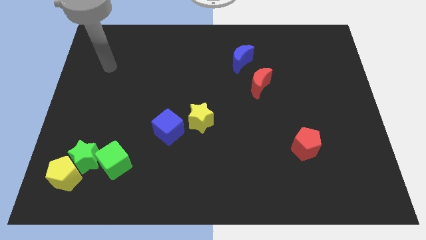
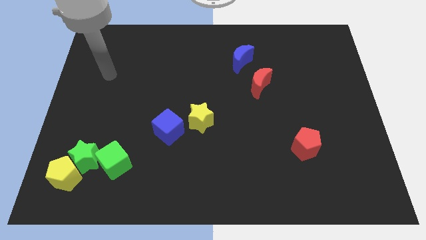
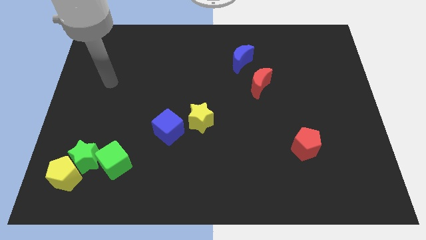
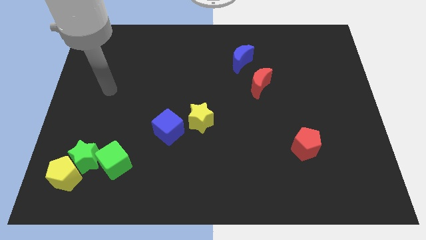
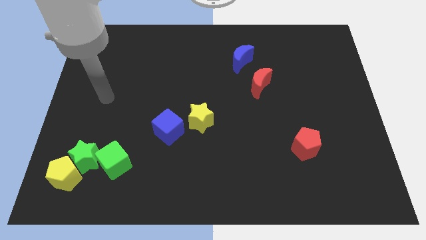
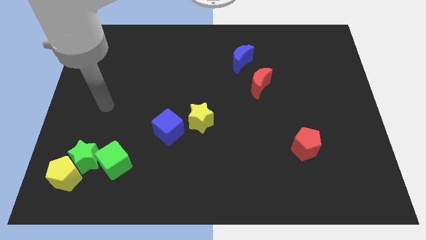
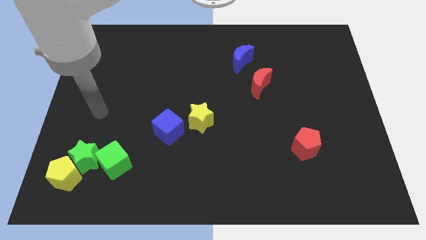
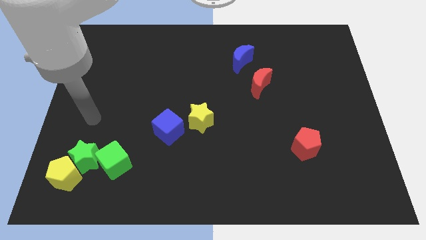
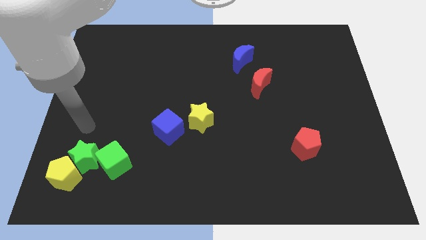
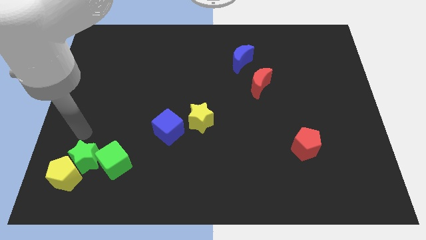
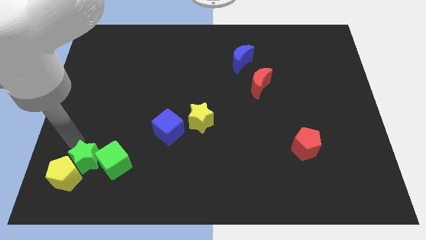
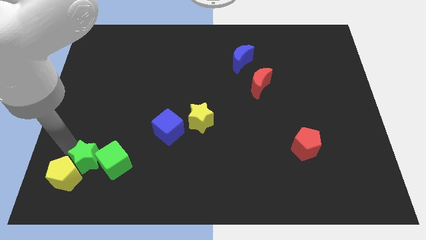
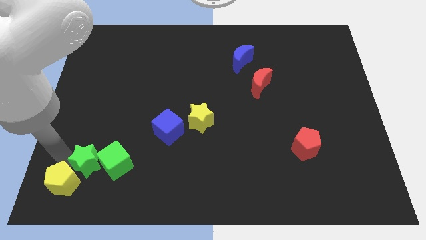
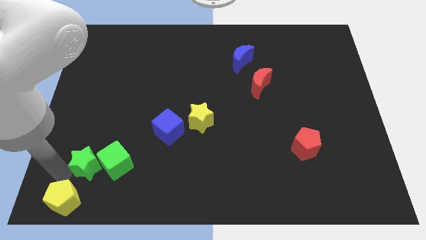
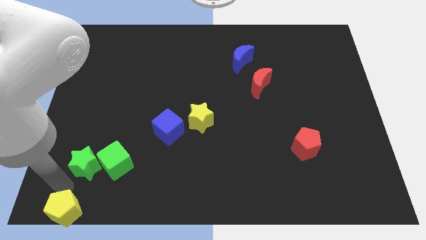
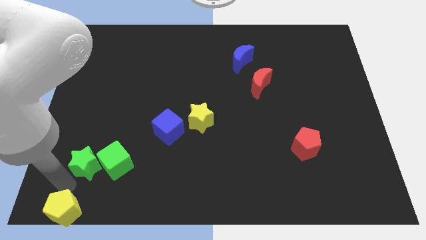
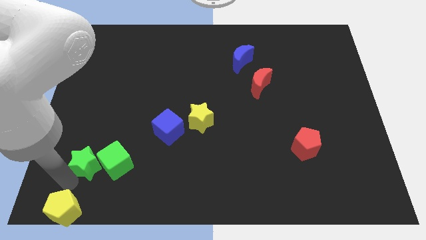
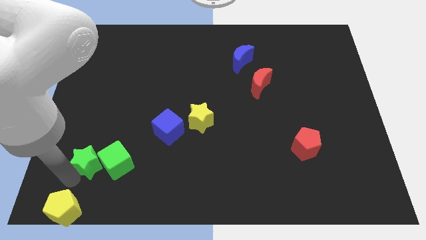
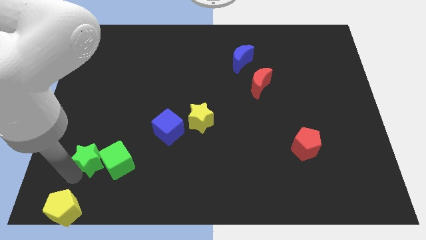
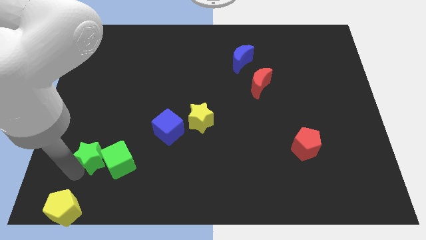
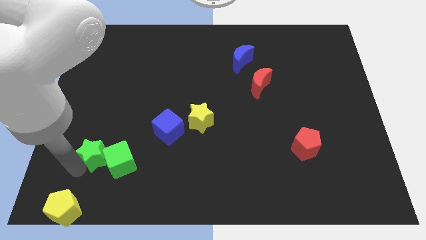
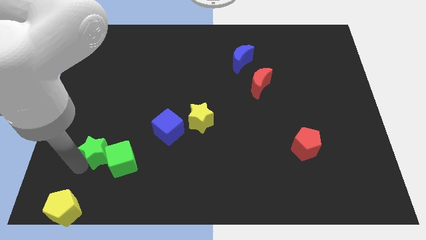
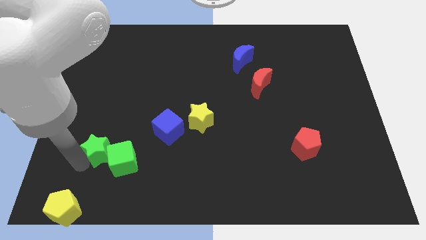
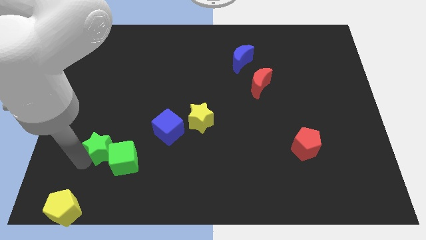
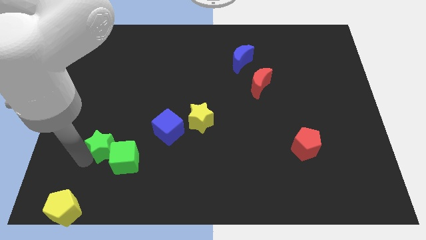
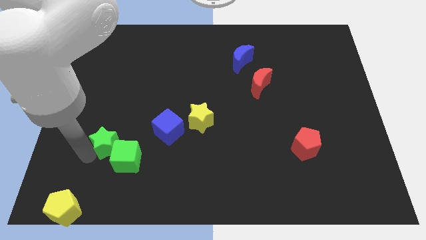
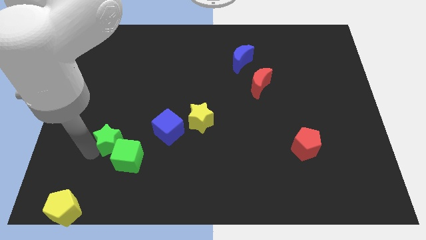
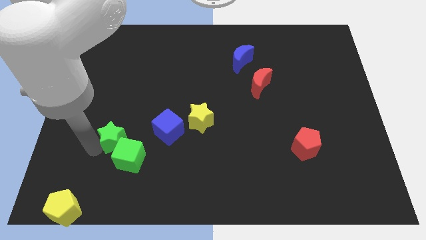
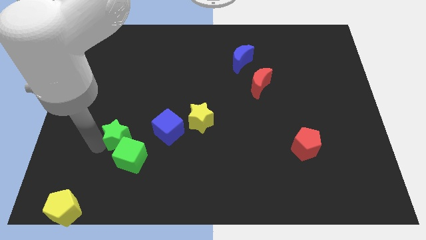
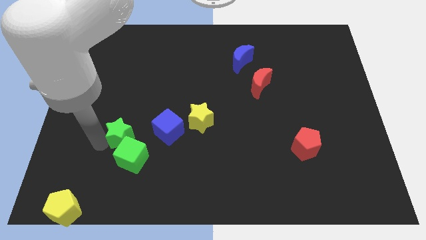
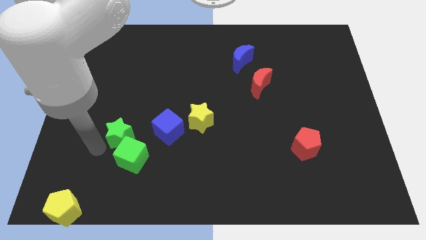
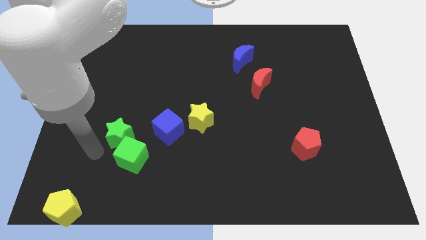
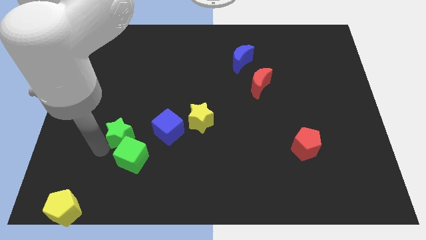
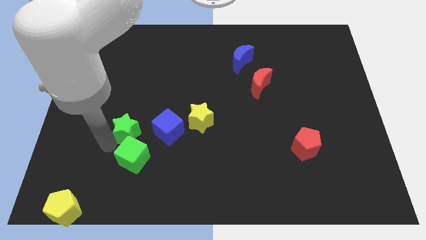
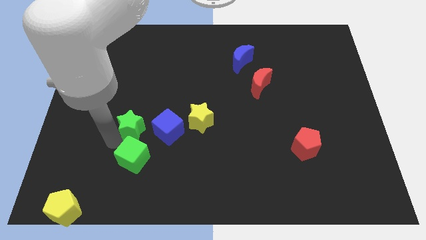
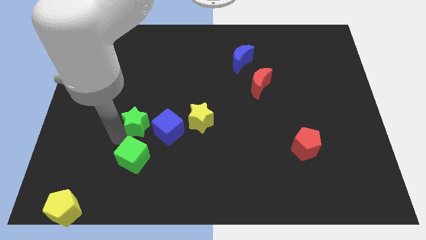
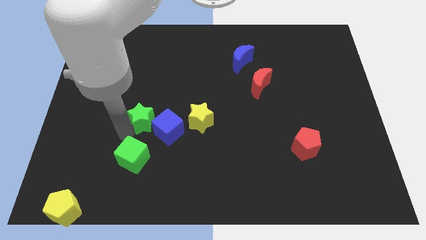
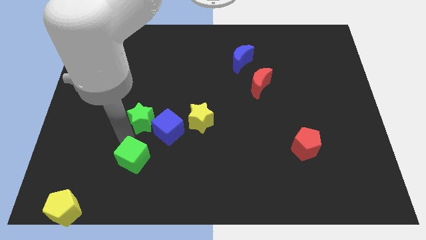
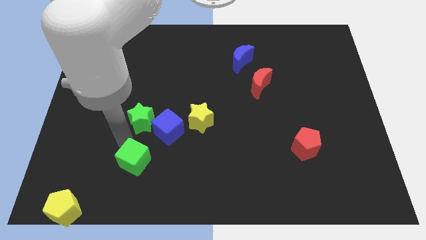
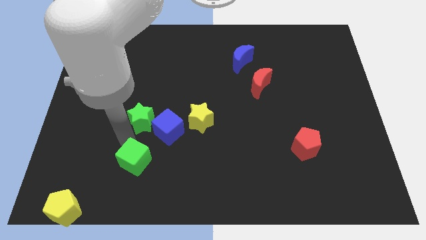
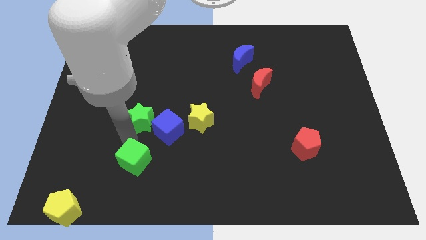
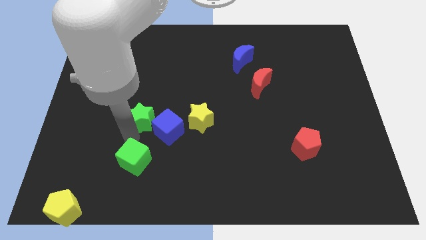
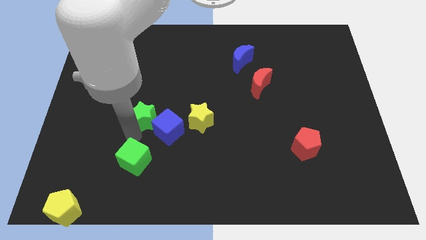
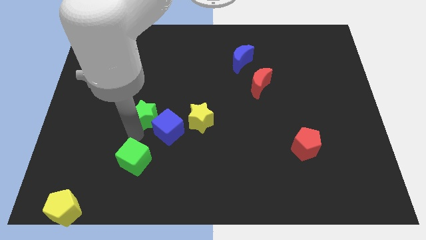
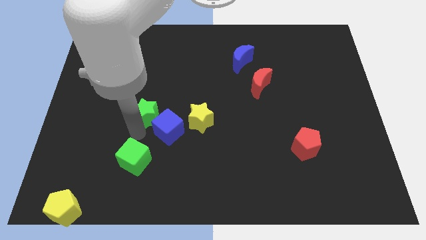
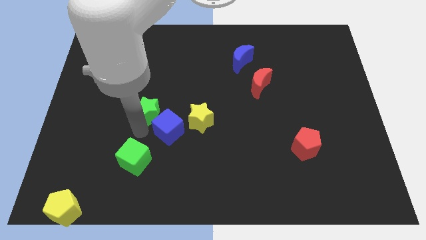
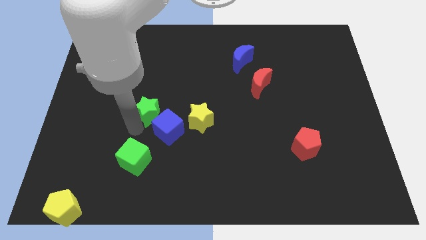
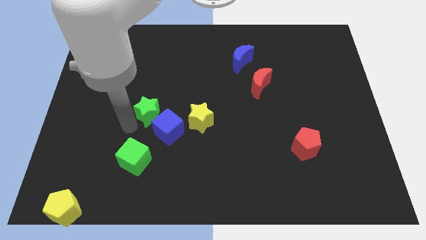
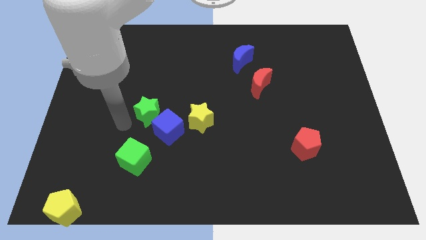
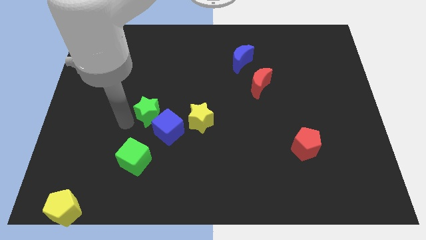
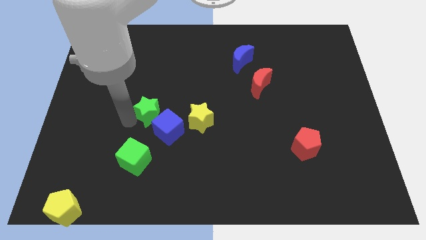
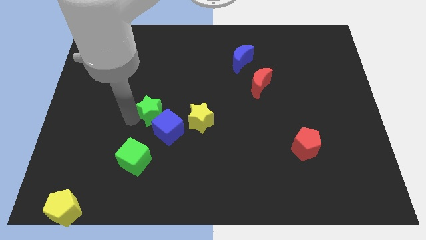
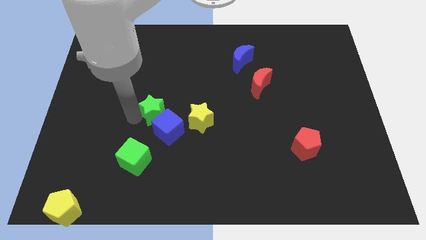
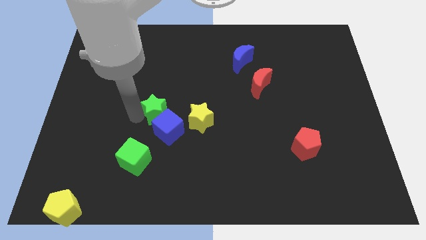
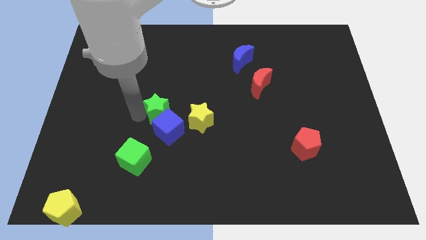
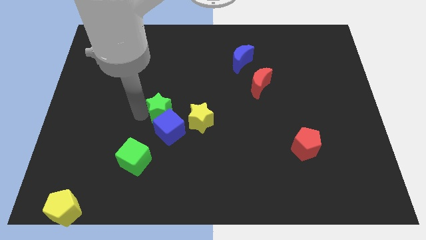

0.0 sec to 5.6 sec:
push the green star to the middle of the board
